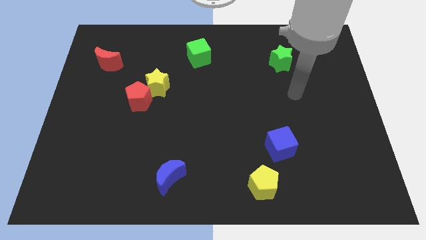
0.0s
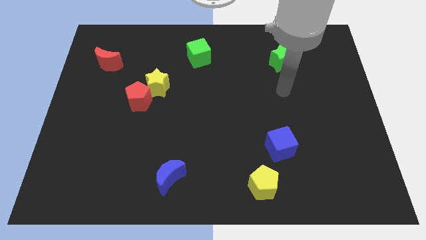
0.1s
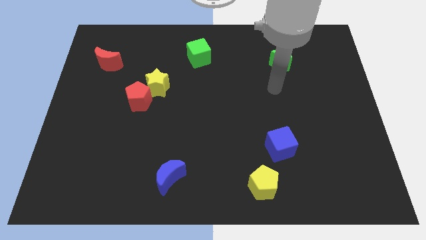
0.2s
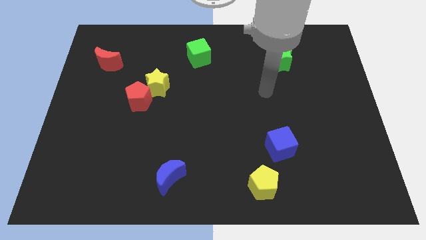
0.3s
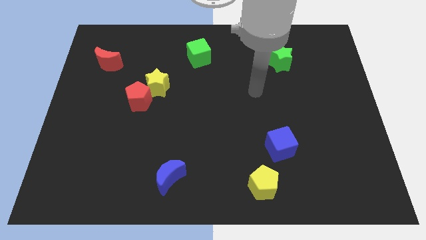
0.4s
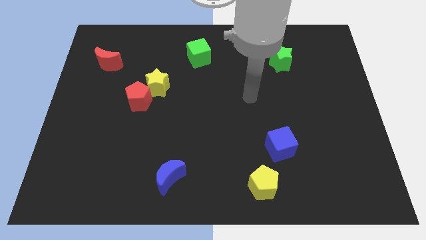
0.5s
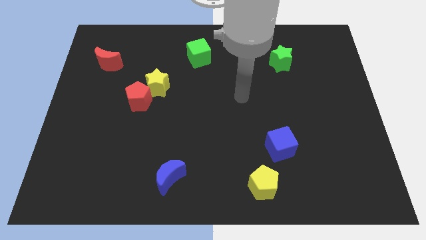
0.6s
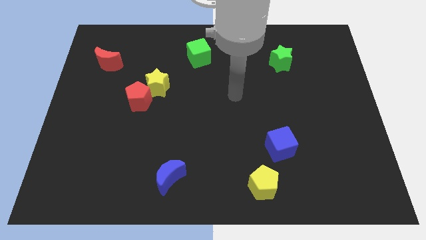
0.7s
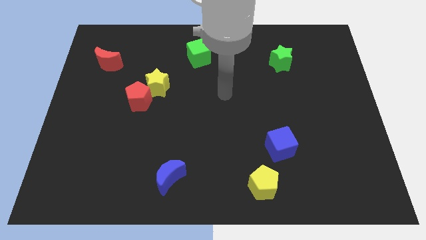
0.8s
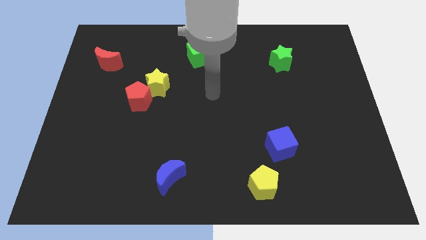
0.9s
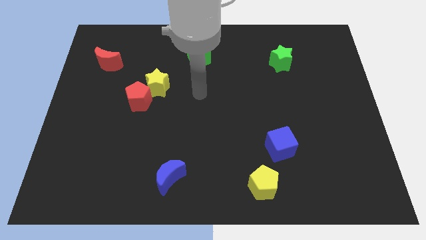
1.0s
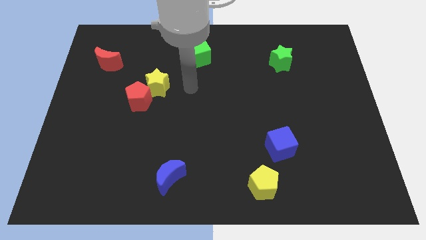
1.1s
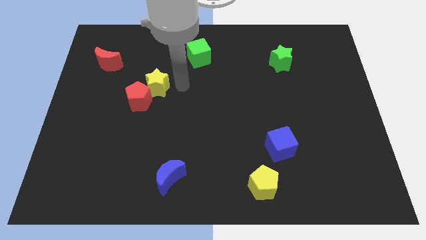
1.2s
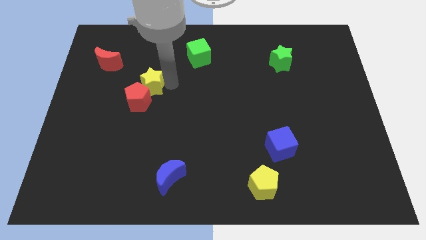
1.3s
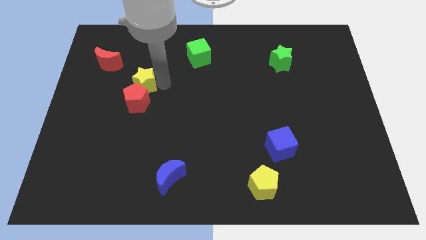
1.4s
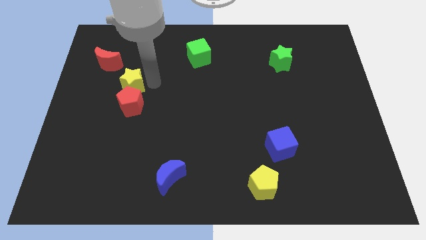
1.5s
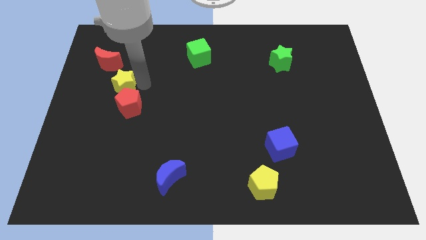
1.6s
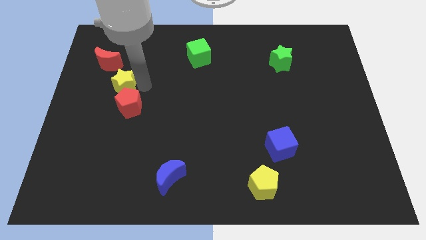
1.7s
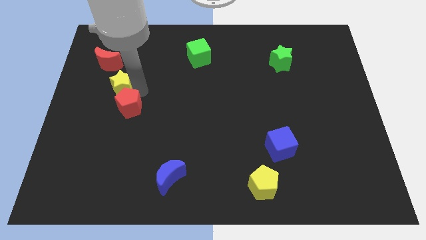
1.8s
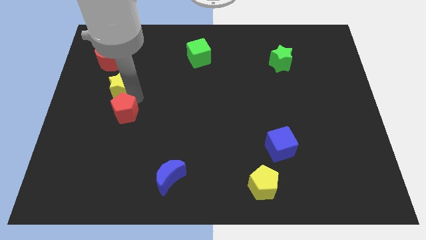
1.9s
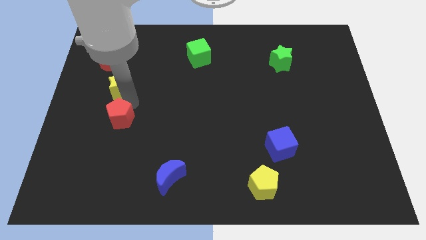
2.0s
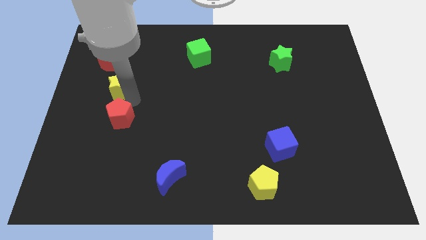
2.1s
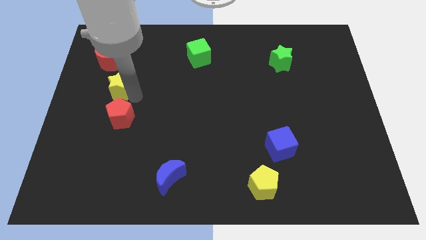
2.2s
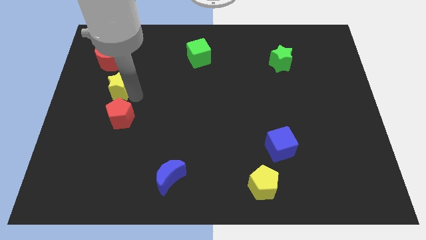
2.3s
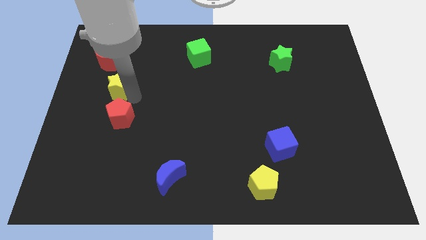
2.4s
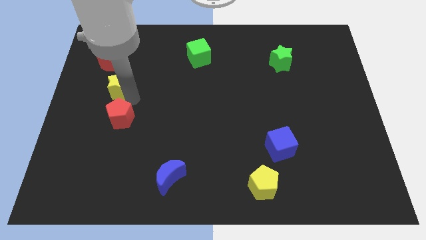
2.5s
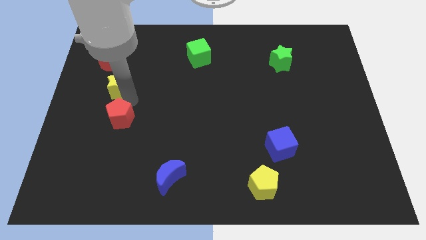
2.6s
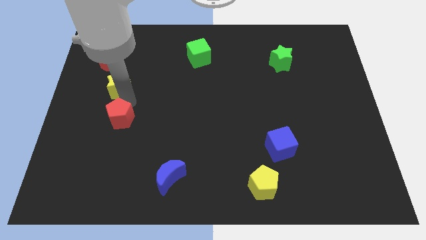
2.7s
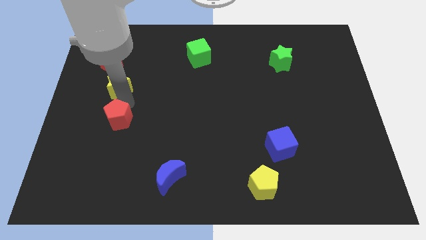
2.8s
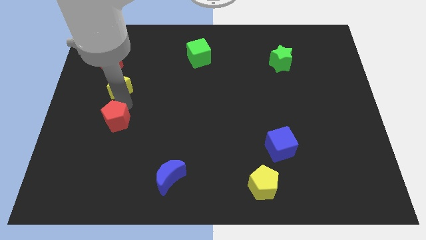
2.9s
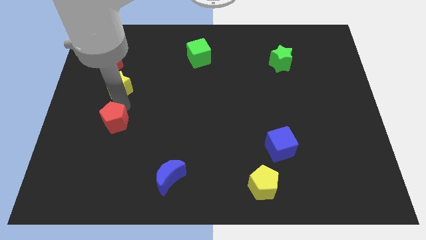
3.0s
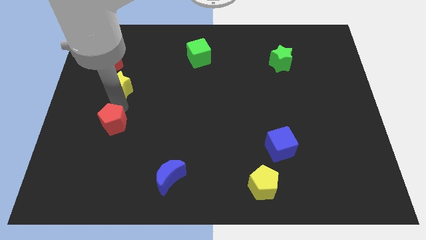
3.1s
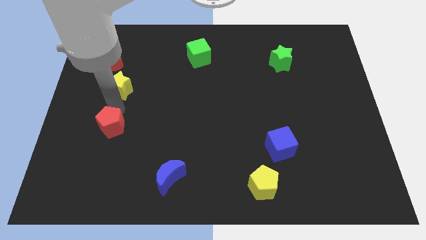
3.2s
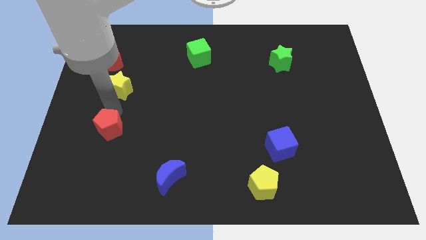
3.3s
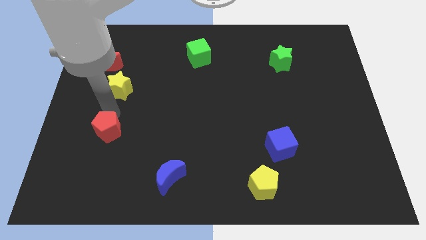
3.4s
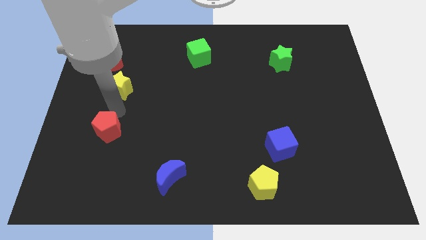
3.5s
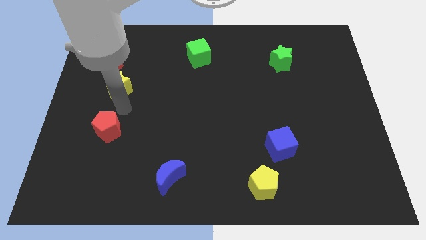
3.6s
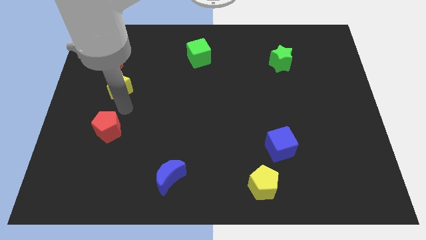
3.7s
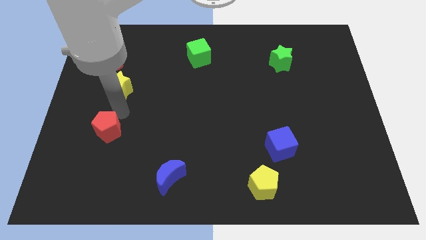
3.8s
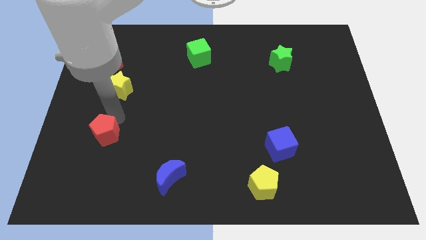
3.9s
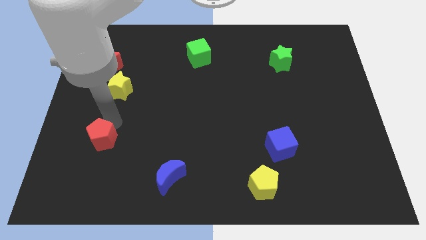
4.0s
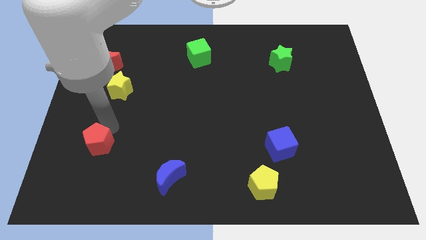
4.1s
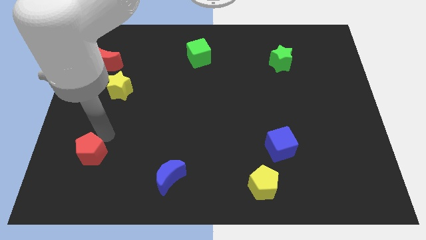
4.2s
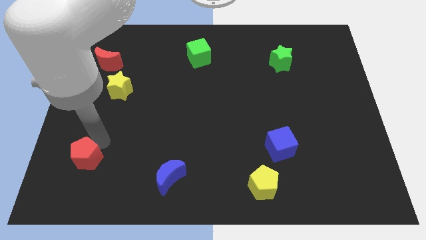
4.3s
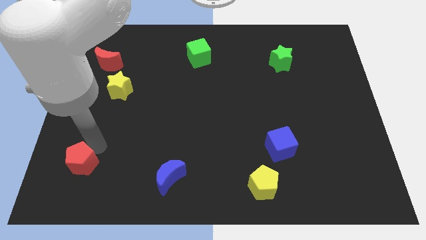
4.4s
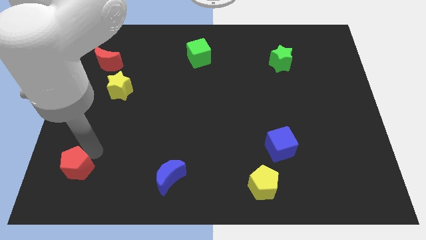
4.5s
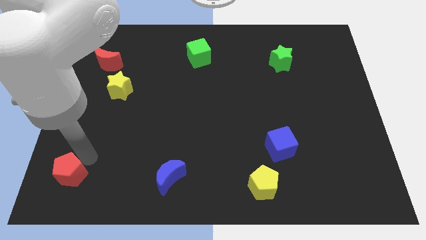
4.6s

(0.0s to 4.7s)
push the red pentagon to the bottom left corner

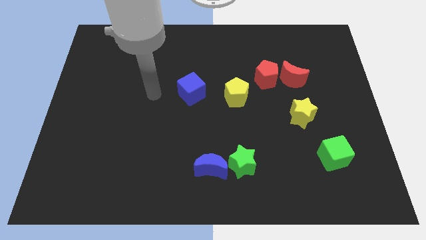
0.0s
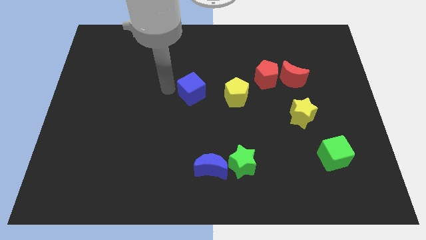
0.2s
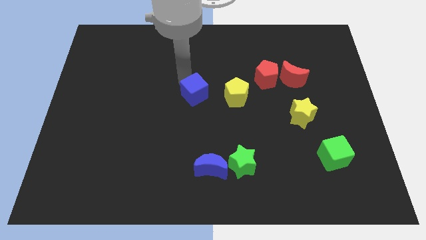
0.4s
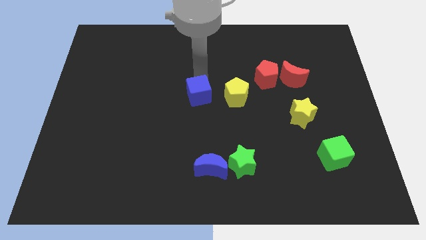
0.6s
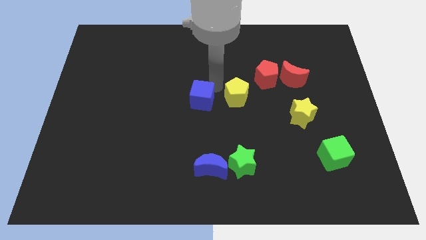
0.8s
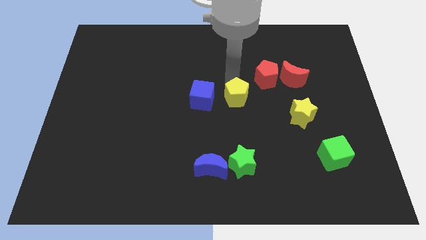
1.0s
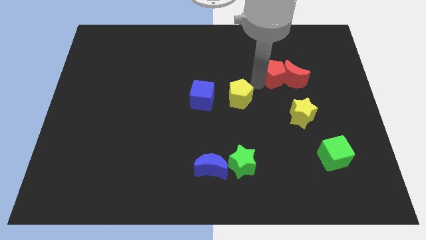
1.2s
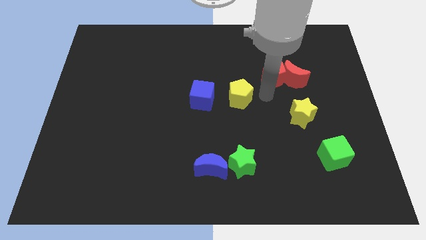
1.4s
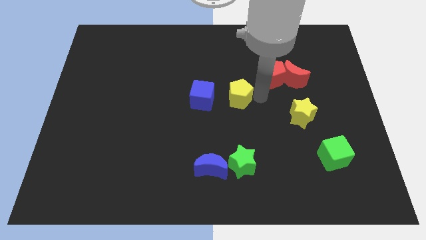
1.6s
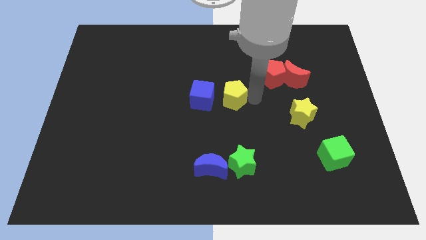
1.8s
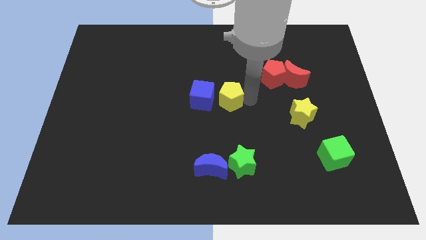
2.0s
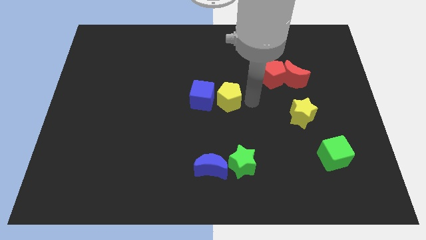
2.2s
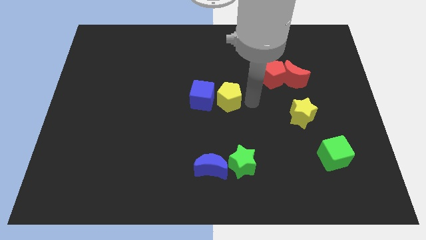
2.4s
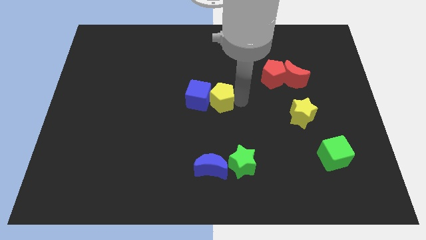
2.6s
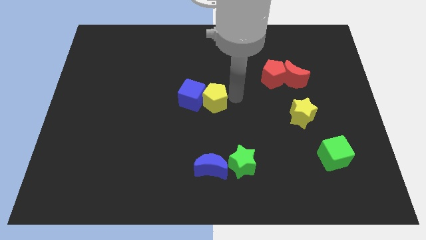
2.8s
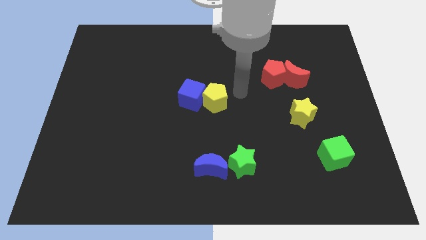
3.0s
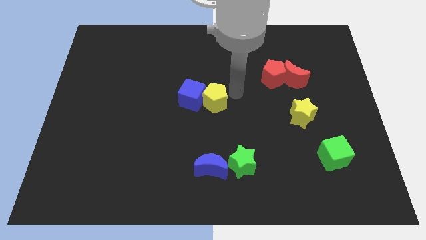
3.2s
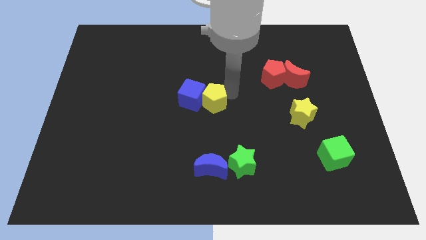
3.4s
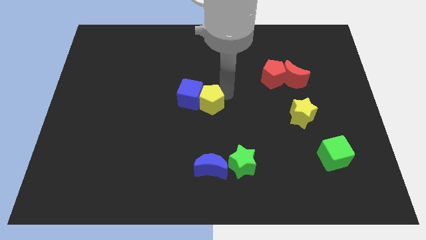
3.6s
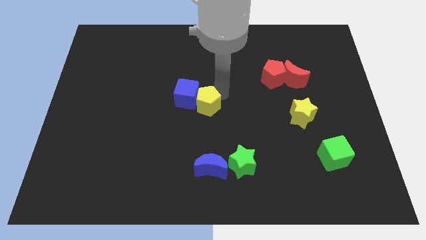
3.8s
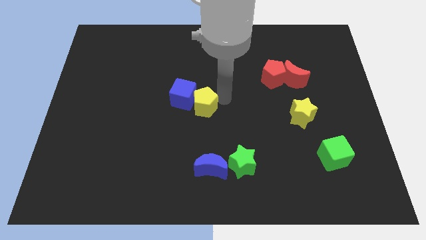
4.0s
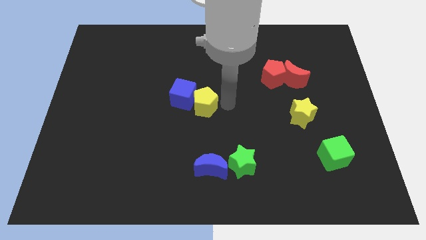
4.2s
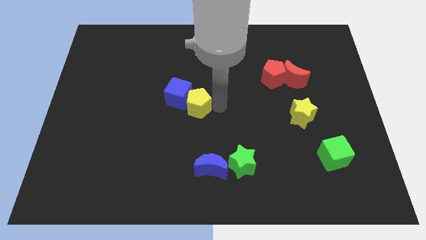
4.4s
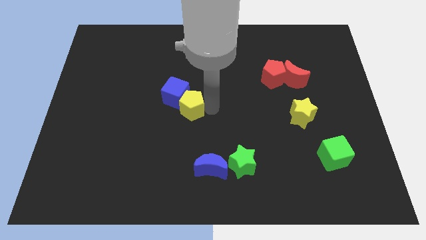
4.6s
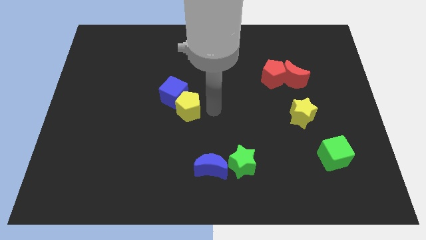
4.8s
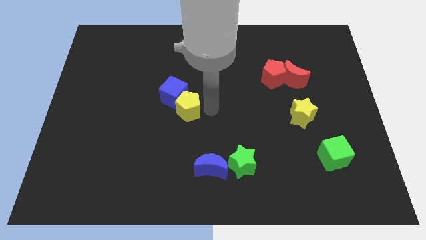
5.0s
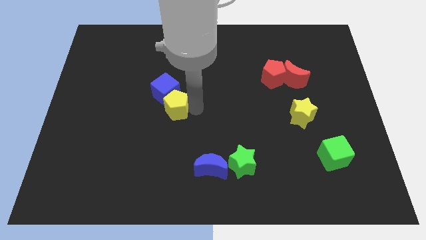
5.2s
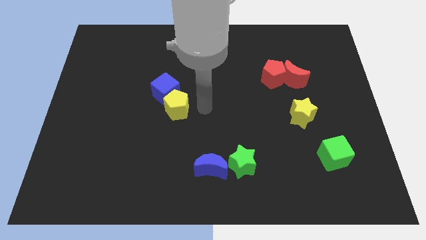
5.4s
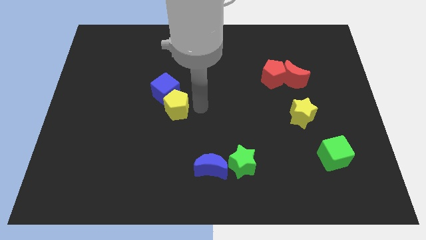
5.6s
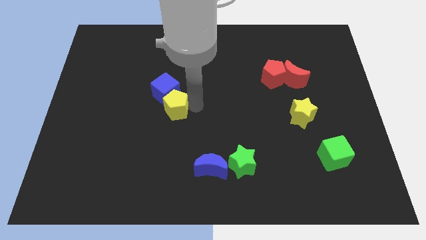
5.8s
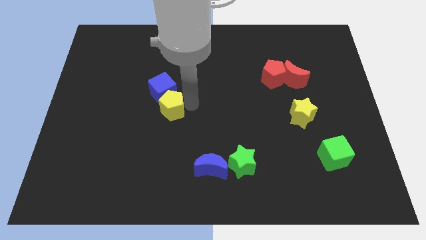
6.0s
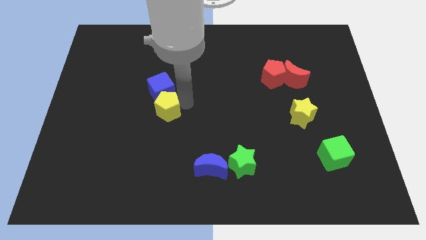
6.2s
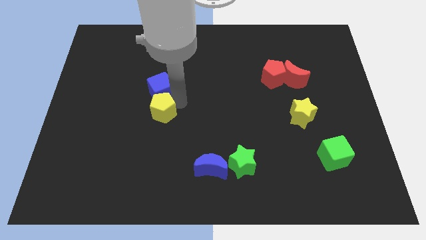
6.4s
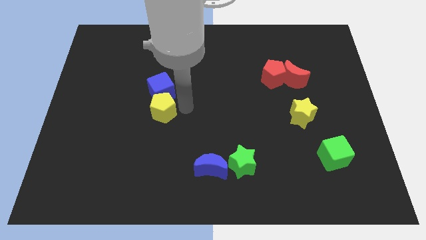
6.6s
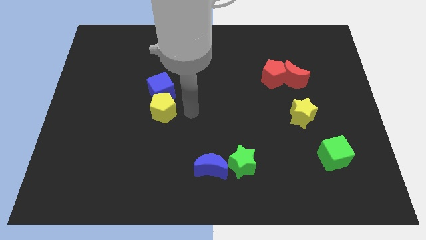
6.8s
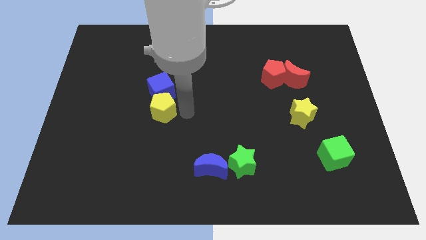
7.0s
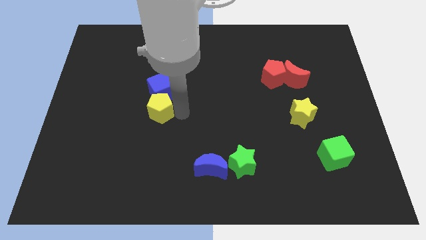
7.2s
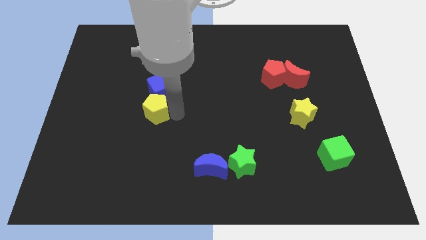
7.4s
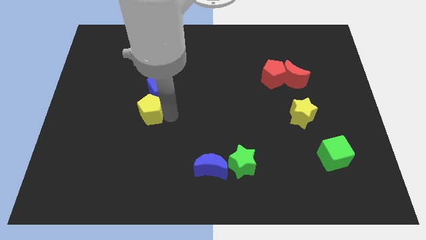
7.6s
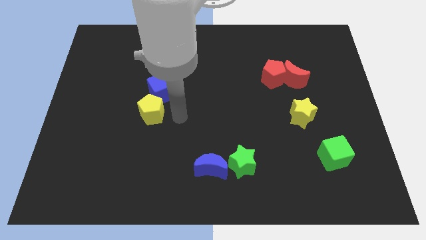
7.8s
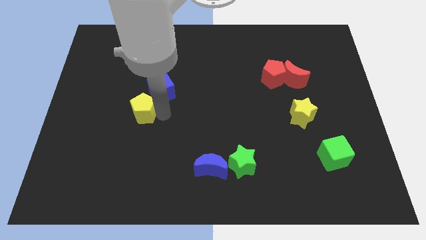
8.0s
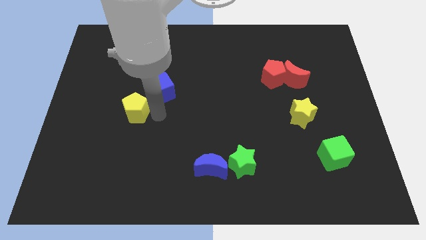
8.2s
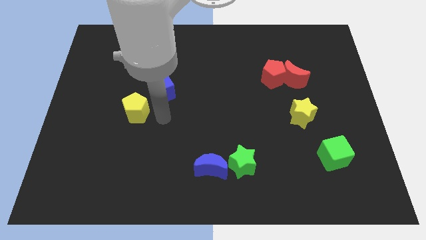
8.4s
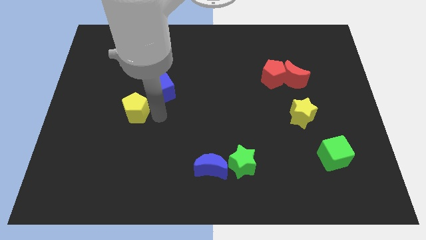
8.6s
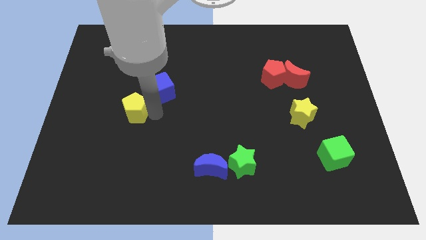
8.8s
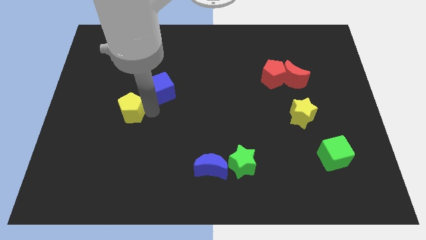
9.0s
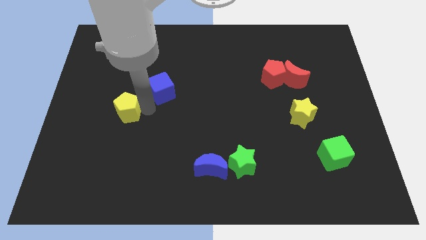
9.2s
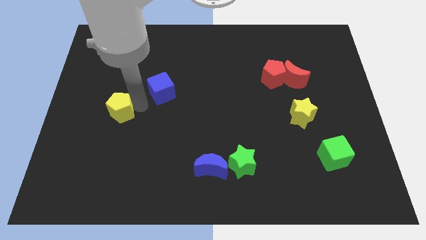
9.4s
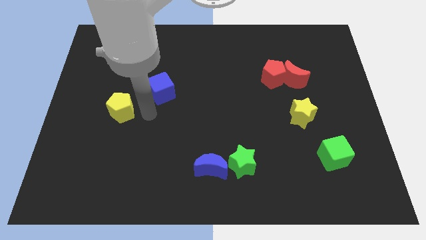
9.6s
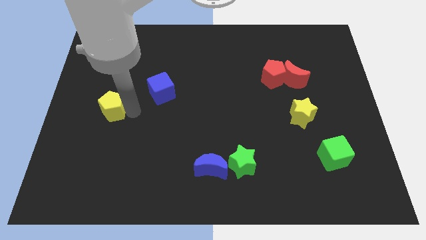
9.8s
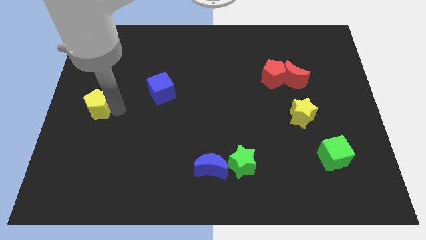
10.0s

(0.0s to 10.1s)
slide the yellow pentagon to the left side of the board
